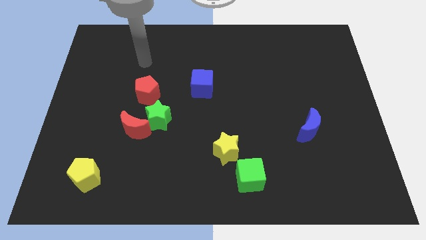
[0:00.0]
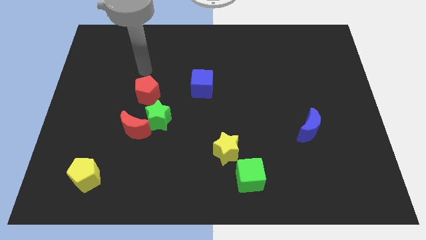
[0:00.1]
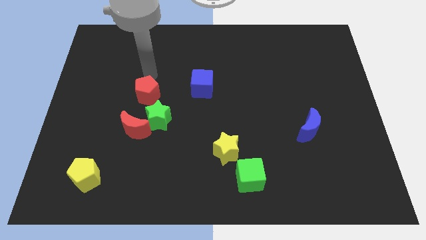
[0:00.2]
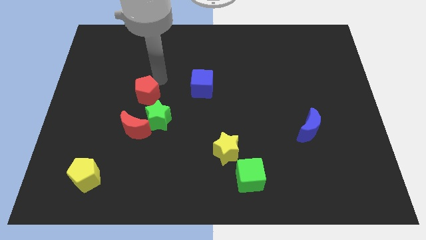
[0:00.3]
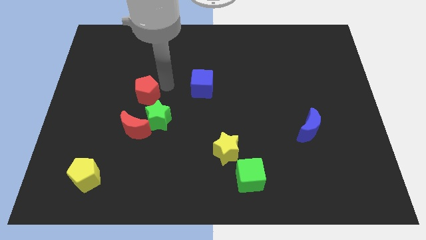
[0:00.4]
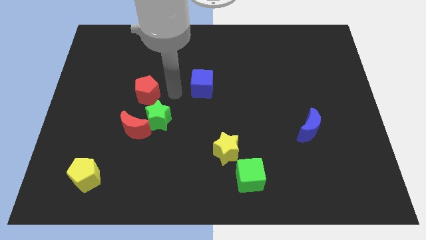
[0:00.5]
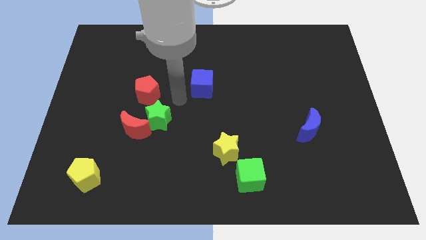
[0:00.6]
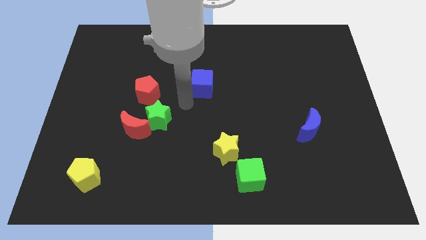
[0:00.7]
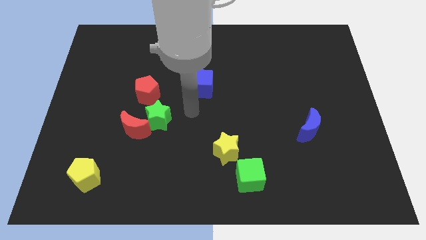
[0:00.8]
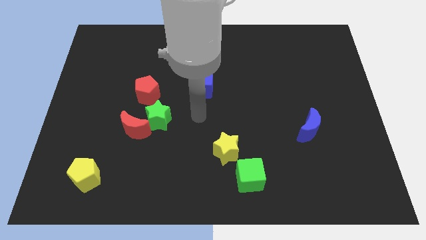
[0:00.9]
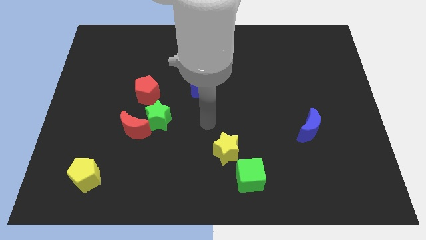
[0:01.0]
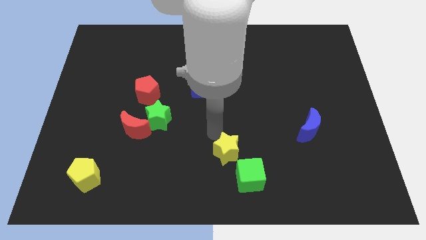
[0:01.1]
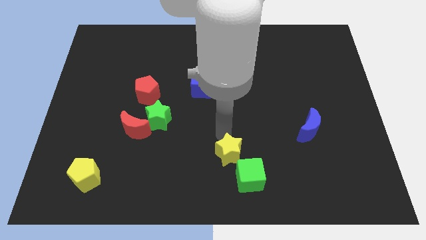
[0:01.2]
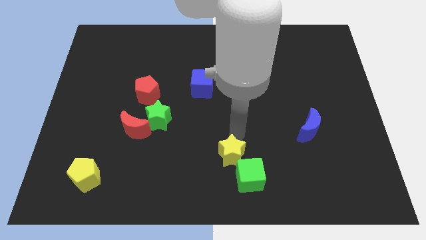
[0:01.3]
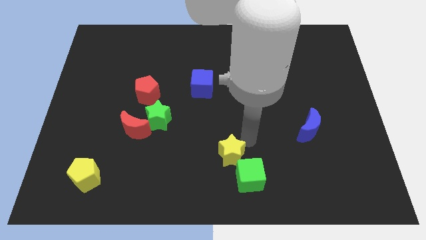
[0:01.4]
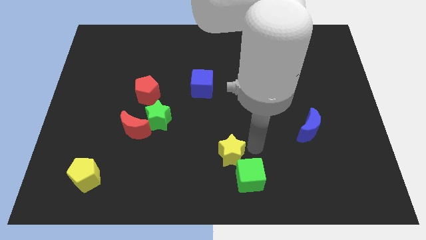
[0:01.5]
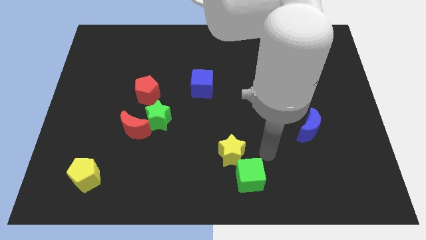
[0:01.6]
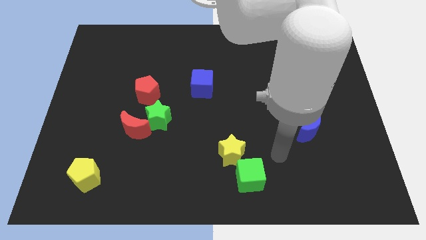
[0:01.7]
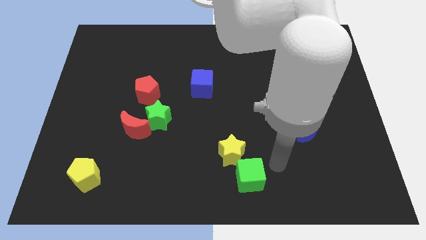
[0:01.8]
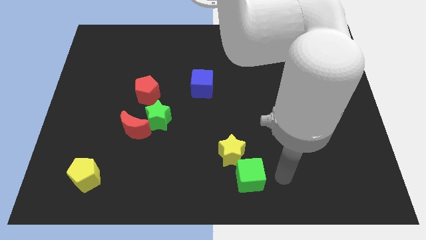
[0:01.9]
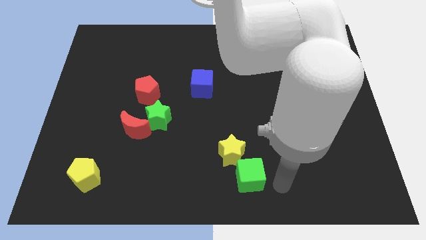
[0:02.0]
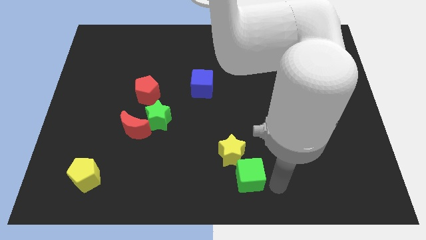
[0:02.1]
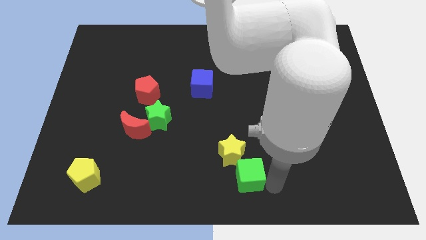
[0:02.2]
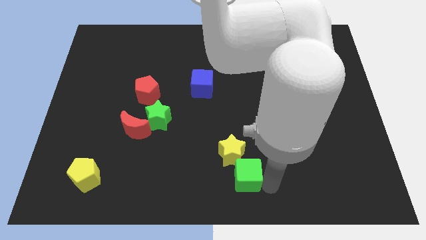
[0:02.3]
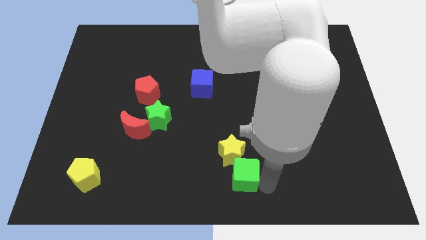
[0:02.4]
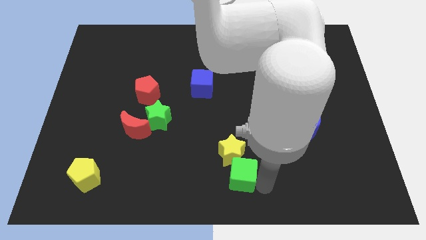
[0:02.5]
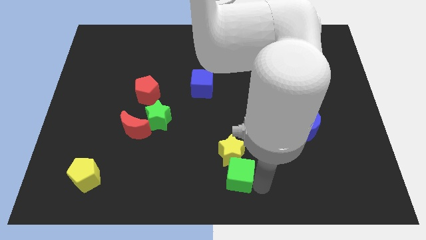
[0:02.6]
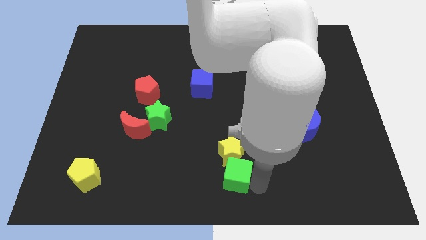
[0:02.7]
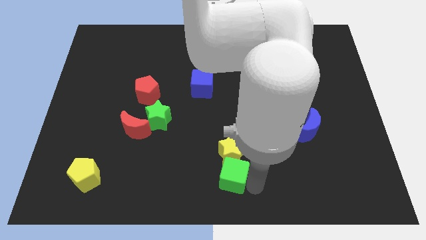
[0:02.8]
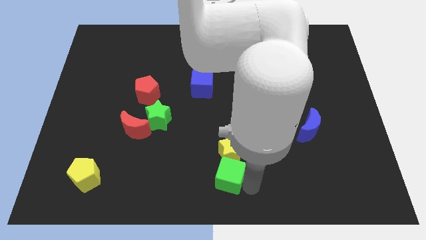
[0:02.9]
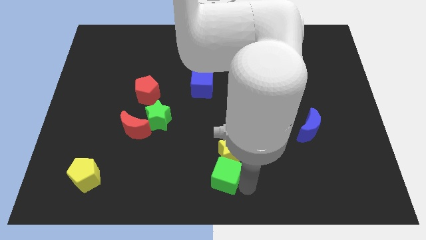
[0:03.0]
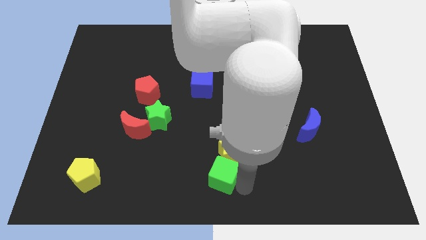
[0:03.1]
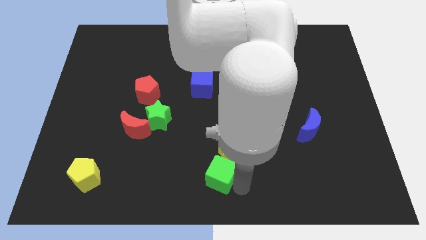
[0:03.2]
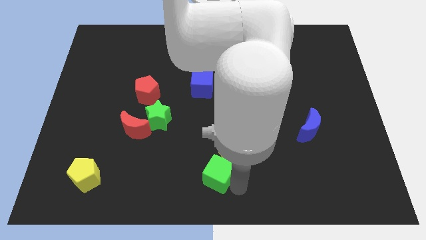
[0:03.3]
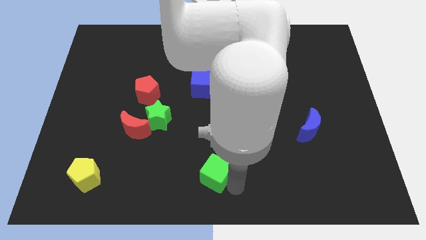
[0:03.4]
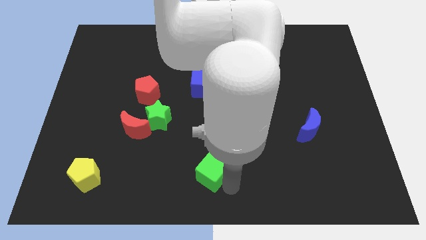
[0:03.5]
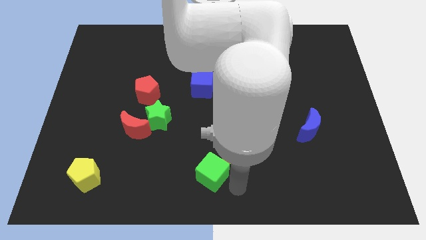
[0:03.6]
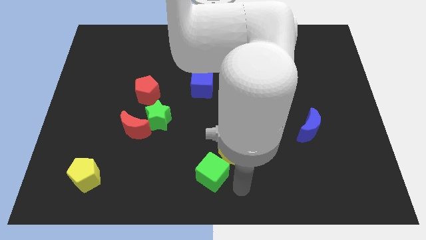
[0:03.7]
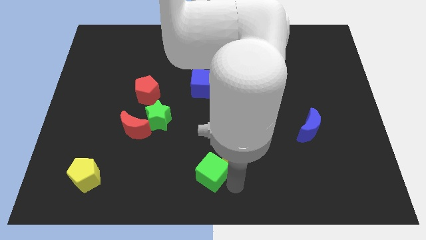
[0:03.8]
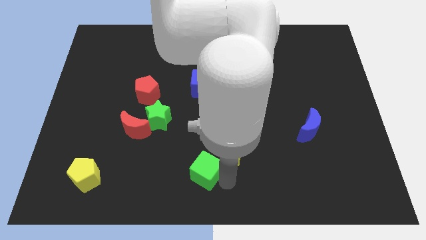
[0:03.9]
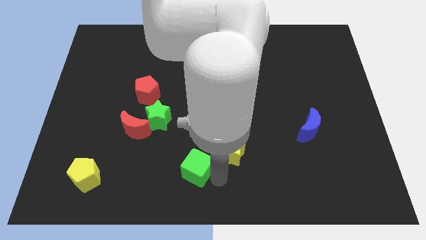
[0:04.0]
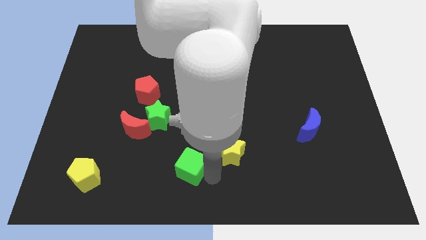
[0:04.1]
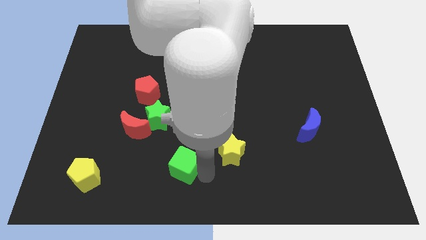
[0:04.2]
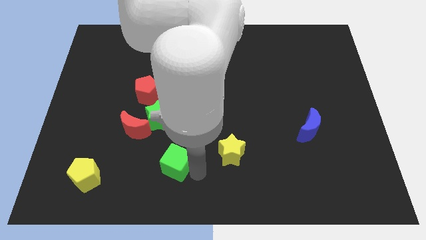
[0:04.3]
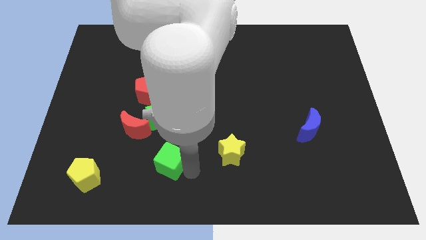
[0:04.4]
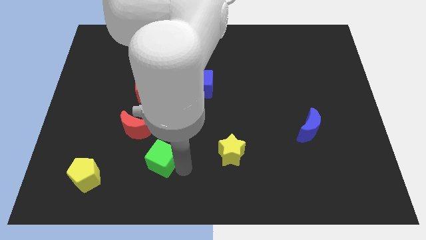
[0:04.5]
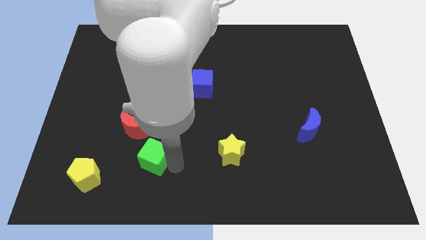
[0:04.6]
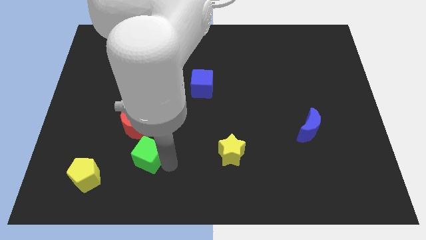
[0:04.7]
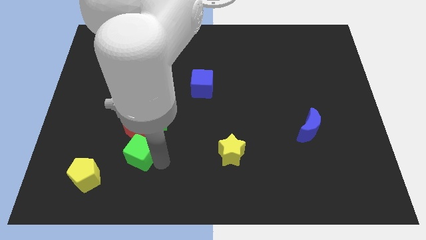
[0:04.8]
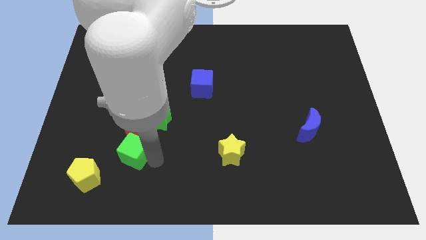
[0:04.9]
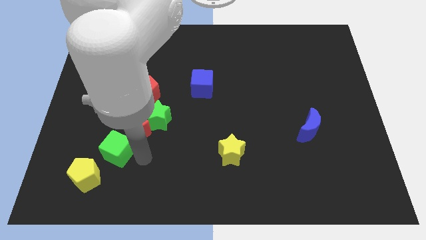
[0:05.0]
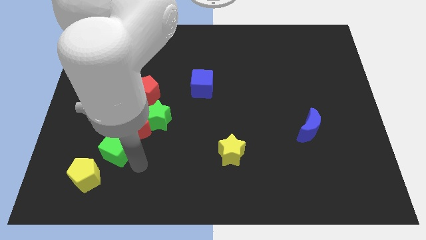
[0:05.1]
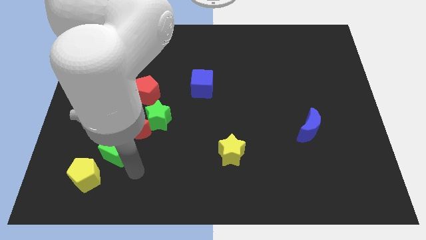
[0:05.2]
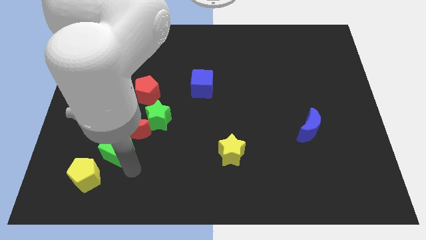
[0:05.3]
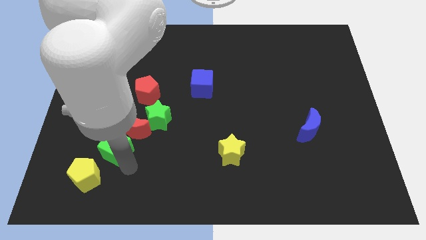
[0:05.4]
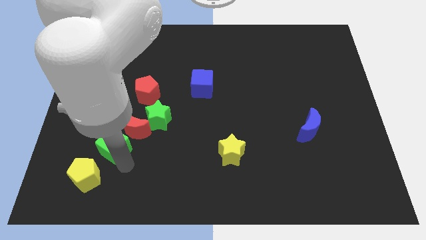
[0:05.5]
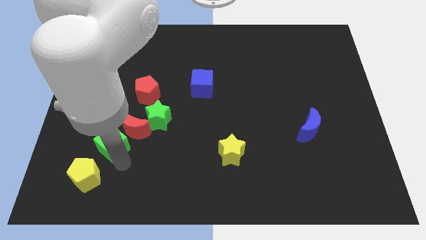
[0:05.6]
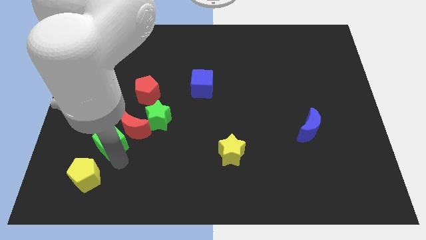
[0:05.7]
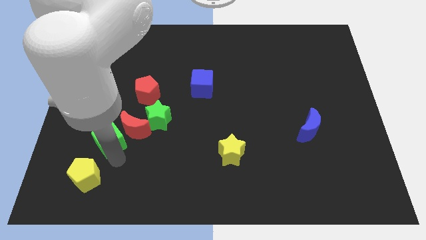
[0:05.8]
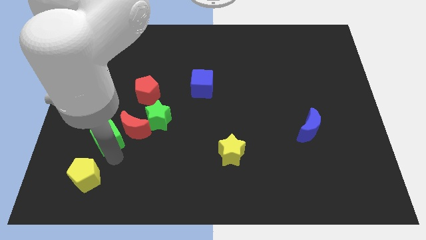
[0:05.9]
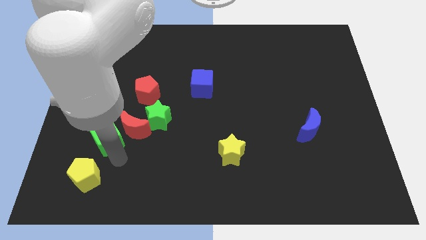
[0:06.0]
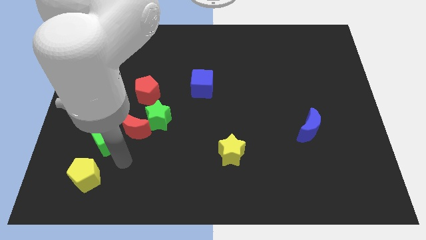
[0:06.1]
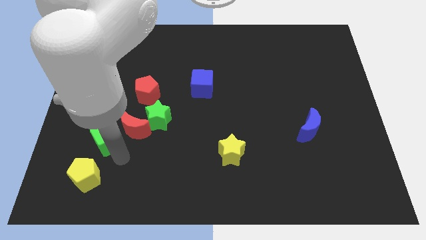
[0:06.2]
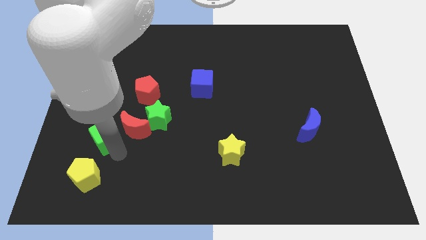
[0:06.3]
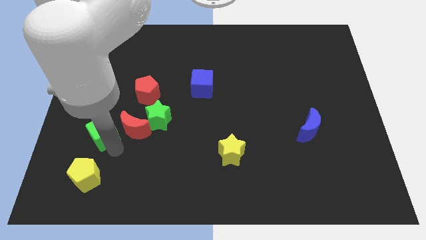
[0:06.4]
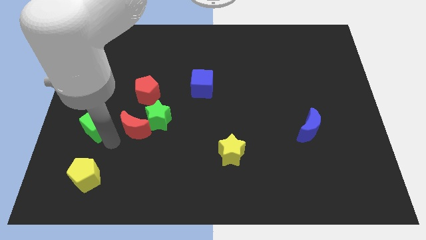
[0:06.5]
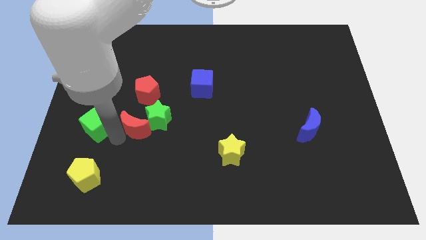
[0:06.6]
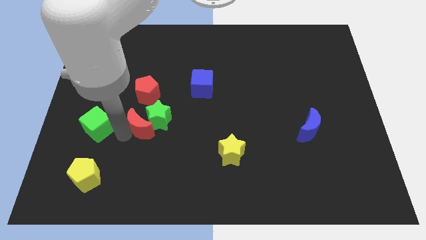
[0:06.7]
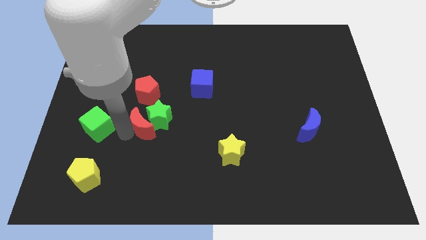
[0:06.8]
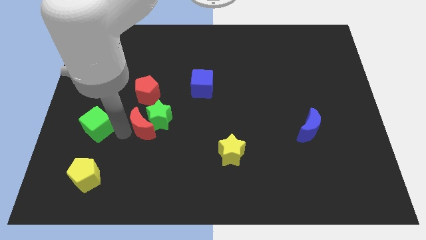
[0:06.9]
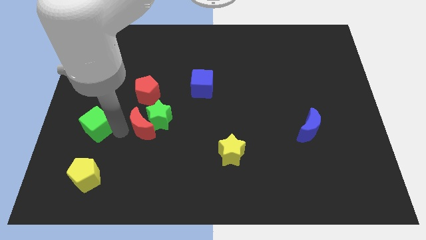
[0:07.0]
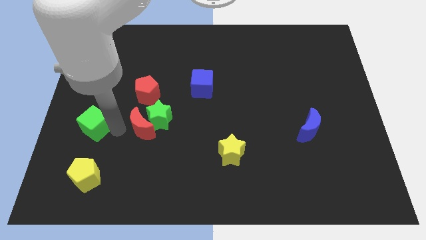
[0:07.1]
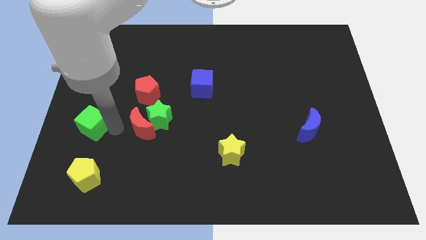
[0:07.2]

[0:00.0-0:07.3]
move the green cube to the left side of the board
